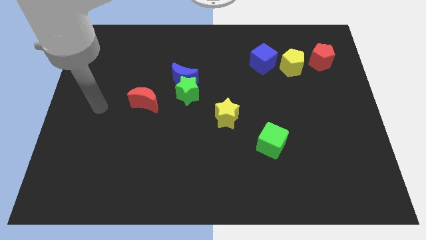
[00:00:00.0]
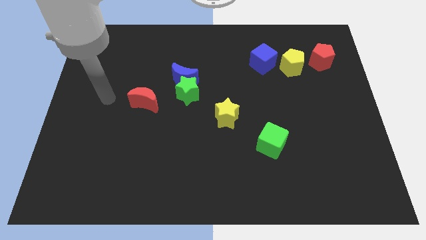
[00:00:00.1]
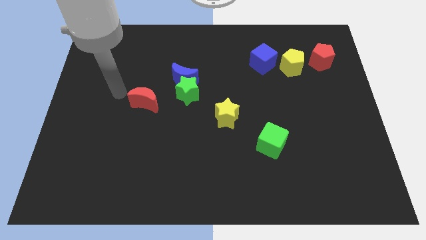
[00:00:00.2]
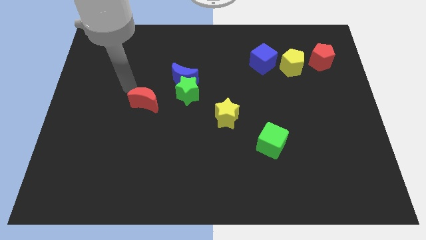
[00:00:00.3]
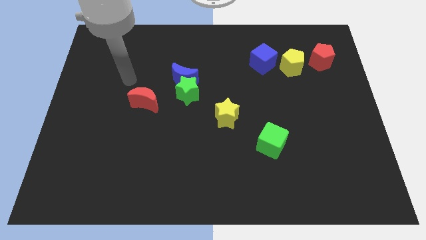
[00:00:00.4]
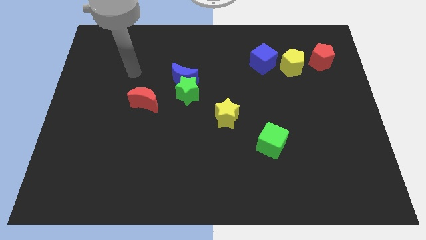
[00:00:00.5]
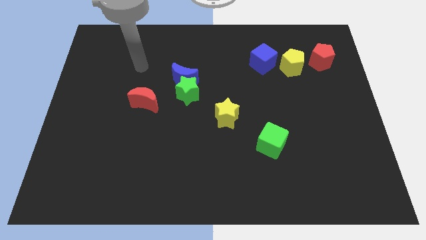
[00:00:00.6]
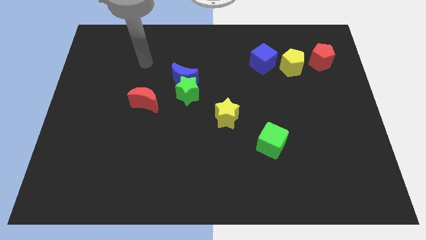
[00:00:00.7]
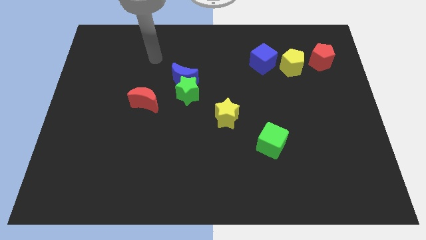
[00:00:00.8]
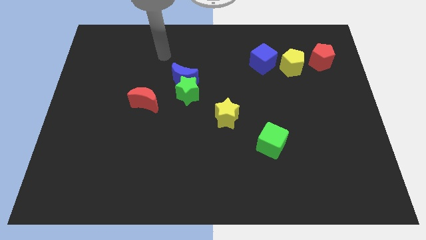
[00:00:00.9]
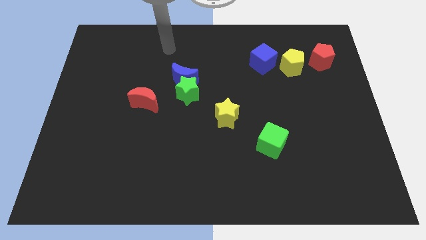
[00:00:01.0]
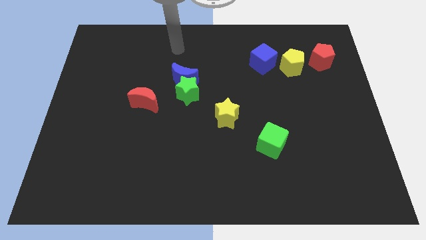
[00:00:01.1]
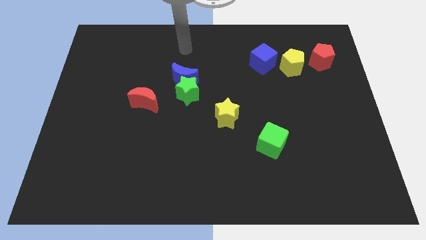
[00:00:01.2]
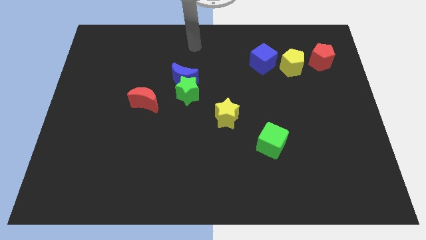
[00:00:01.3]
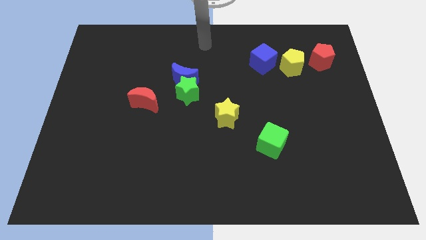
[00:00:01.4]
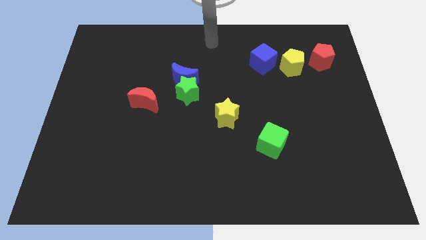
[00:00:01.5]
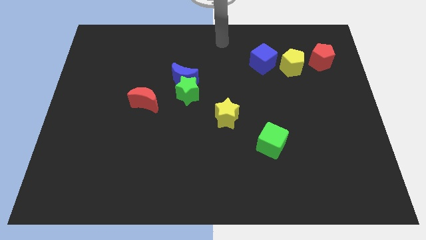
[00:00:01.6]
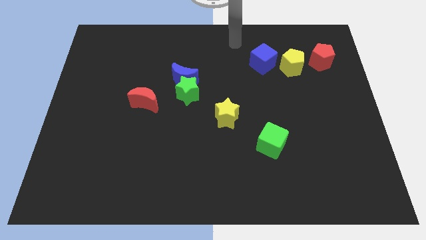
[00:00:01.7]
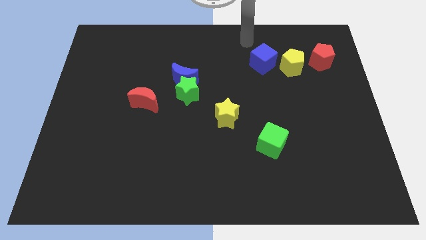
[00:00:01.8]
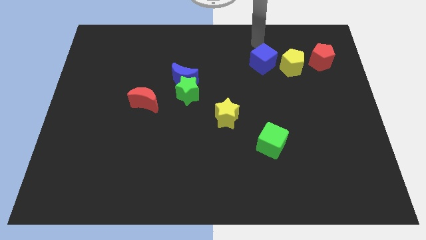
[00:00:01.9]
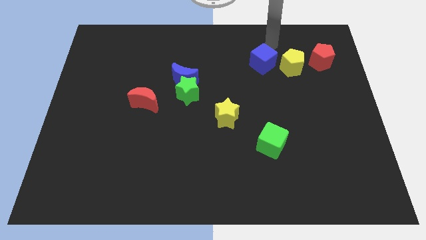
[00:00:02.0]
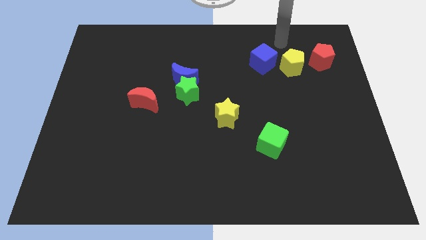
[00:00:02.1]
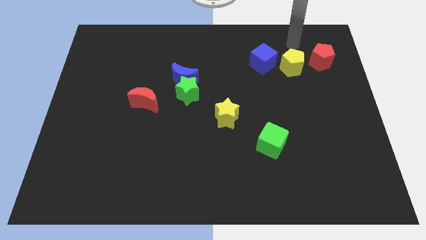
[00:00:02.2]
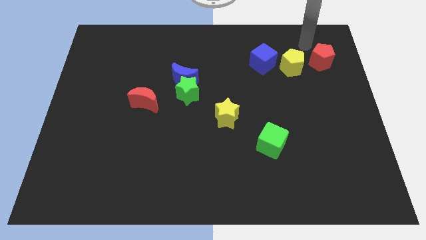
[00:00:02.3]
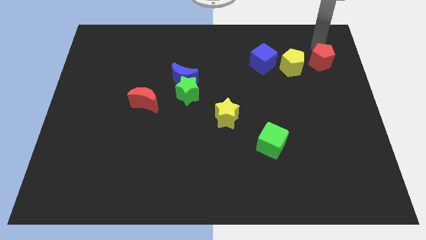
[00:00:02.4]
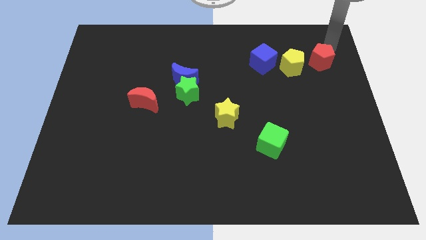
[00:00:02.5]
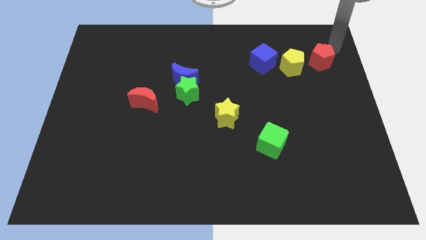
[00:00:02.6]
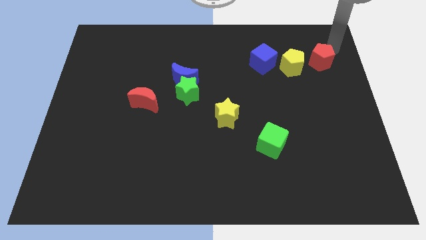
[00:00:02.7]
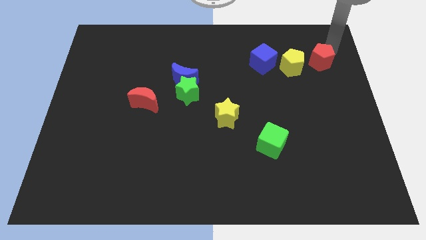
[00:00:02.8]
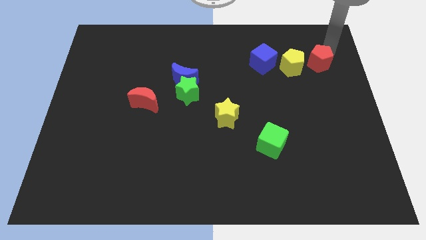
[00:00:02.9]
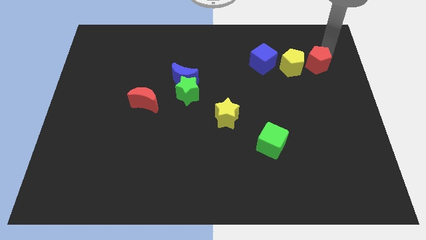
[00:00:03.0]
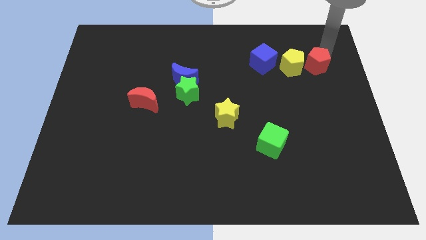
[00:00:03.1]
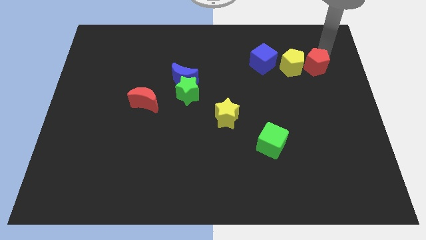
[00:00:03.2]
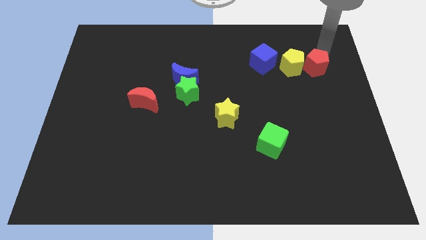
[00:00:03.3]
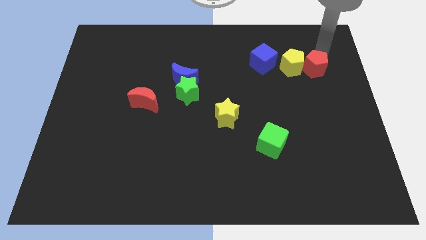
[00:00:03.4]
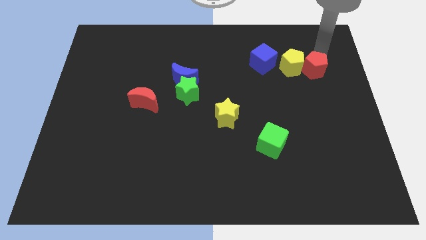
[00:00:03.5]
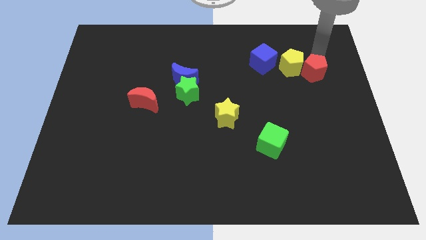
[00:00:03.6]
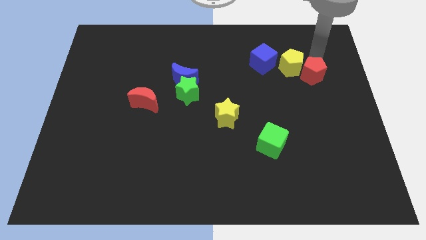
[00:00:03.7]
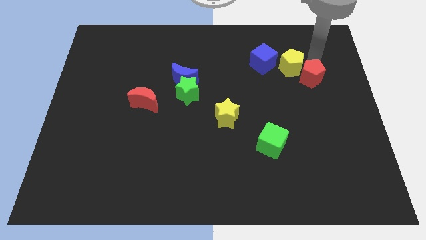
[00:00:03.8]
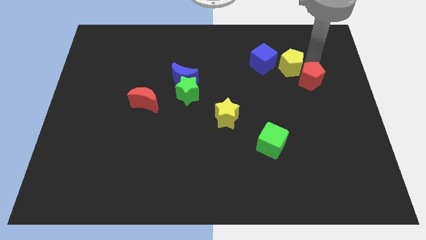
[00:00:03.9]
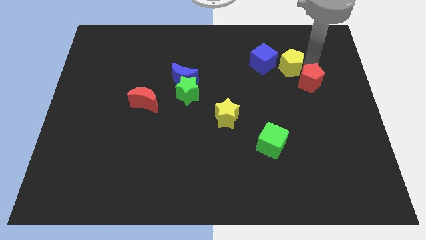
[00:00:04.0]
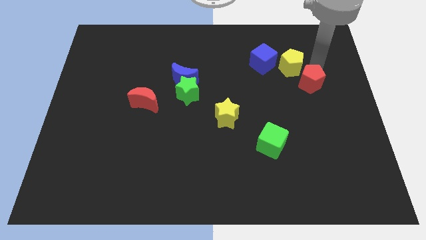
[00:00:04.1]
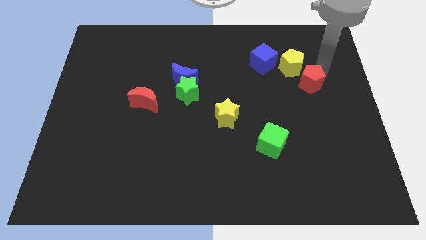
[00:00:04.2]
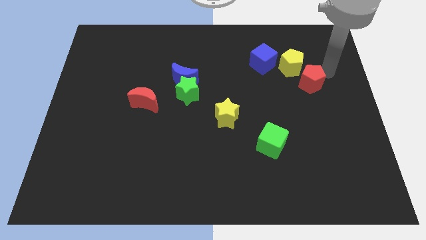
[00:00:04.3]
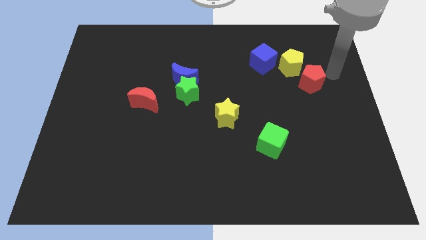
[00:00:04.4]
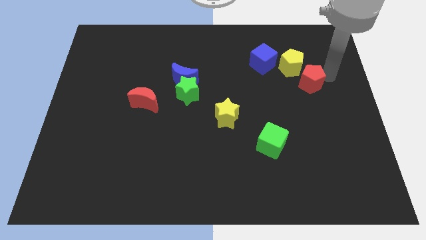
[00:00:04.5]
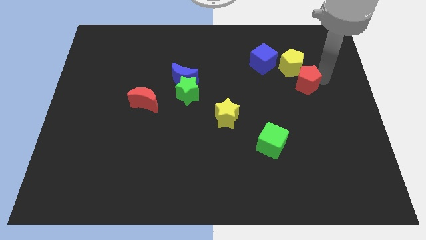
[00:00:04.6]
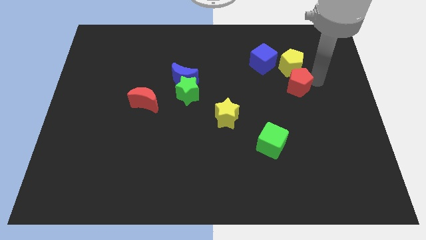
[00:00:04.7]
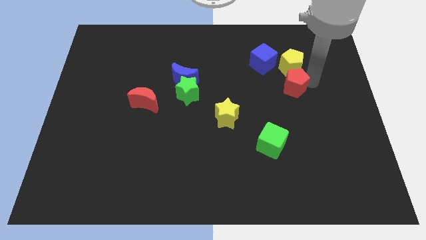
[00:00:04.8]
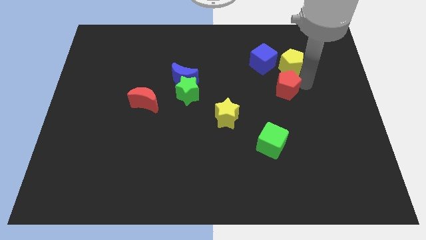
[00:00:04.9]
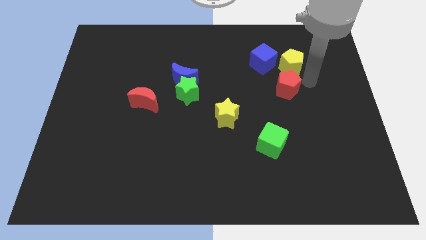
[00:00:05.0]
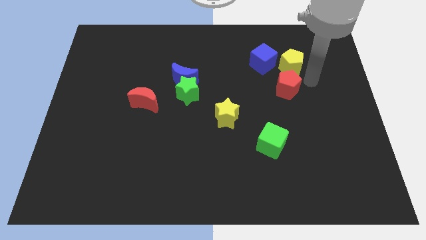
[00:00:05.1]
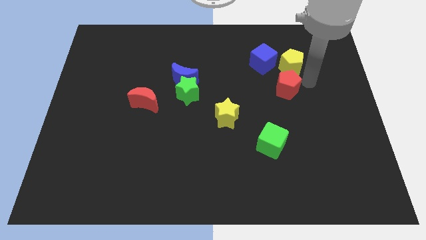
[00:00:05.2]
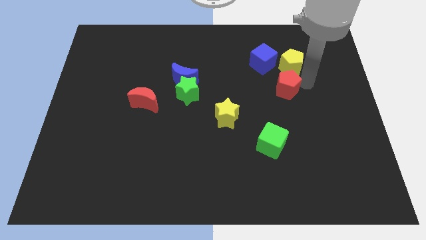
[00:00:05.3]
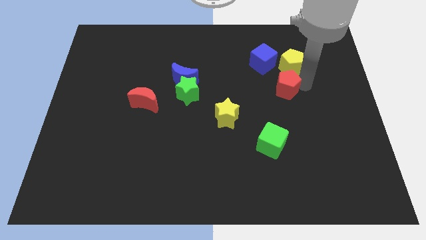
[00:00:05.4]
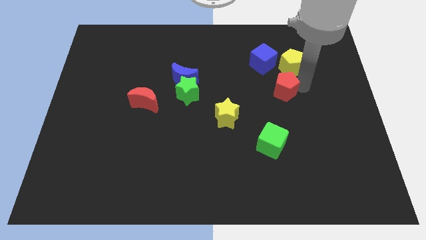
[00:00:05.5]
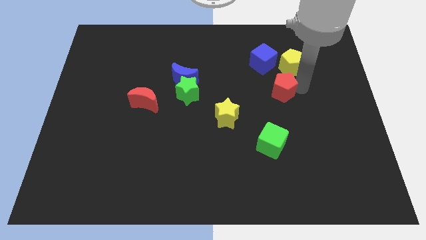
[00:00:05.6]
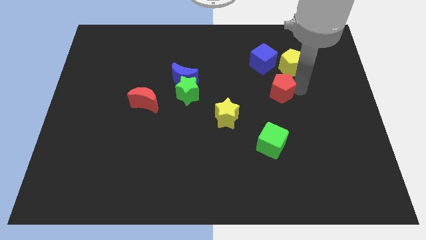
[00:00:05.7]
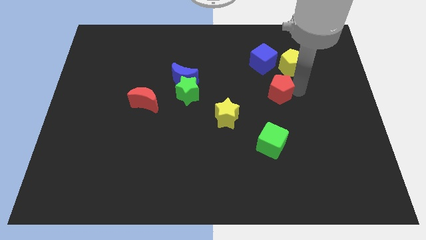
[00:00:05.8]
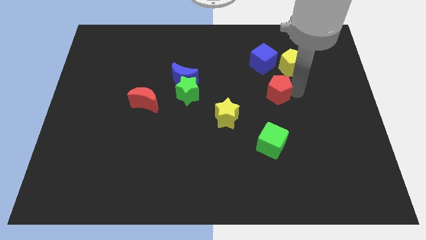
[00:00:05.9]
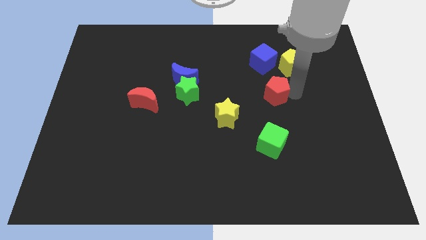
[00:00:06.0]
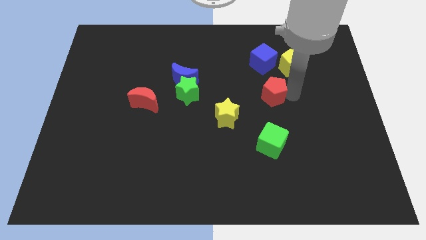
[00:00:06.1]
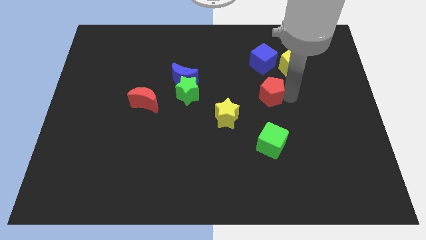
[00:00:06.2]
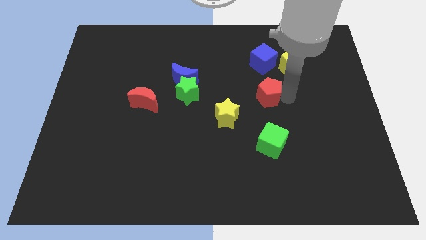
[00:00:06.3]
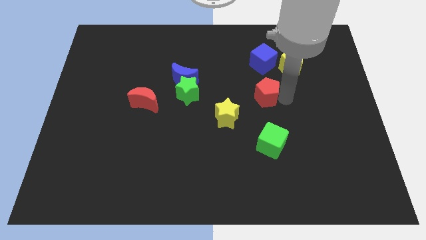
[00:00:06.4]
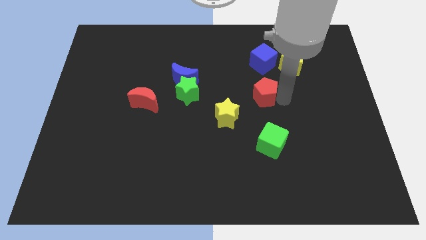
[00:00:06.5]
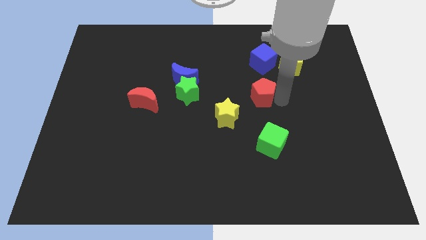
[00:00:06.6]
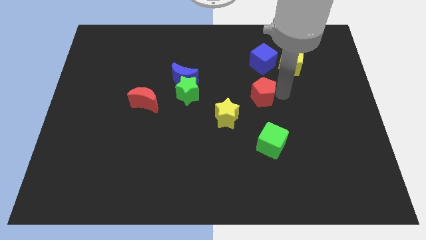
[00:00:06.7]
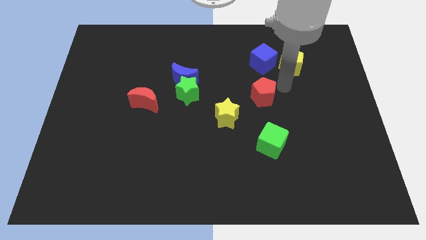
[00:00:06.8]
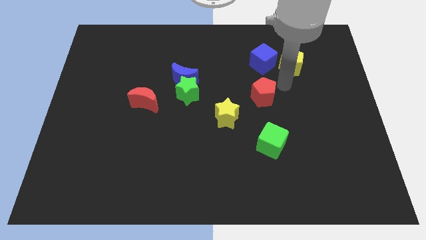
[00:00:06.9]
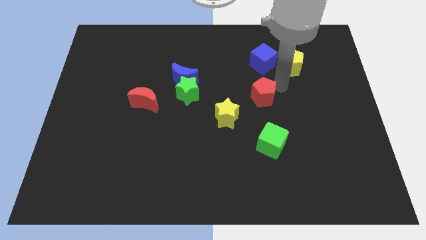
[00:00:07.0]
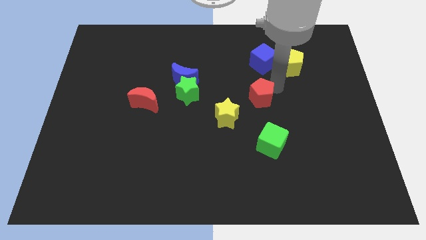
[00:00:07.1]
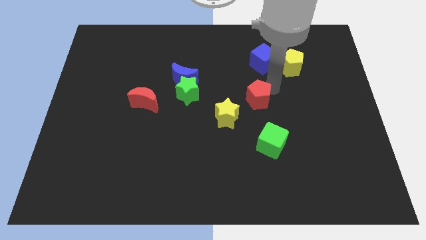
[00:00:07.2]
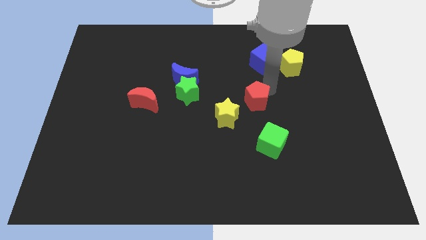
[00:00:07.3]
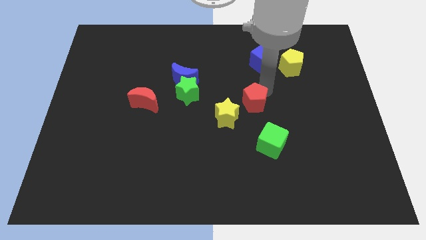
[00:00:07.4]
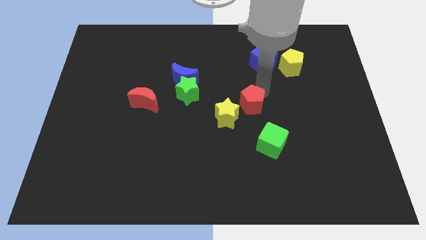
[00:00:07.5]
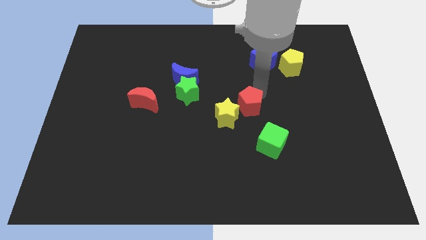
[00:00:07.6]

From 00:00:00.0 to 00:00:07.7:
push the red pentagon close to the yellow star
